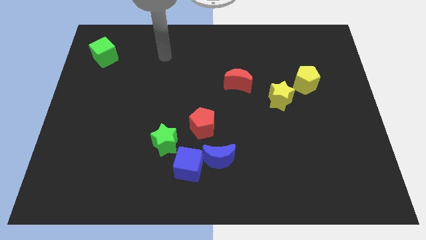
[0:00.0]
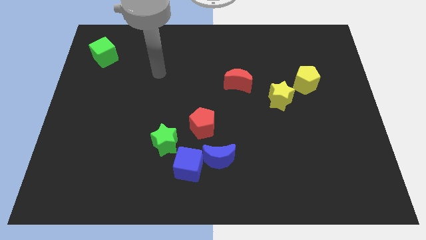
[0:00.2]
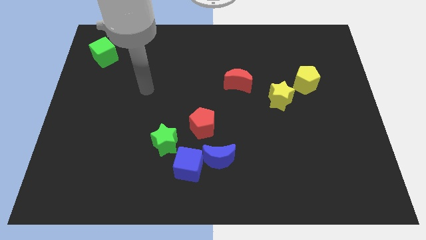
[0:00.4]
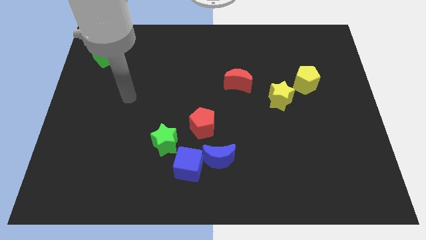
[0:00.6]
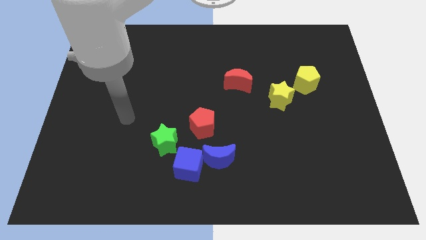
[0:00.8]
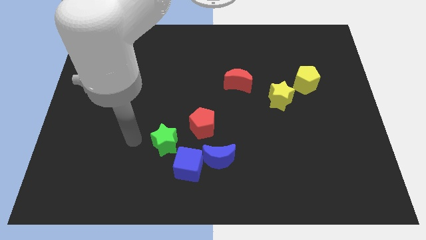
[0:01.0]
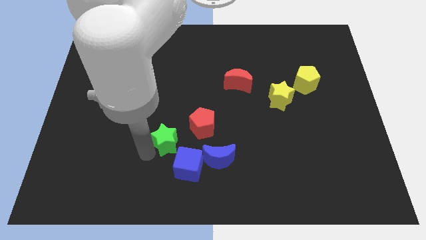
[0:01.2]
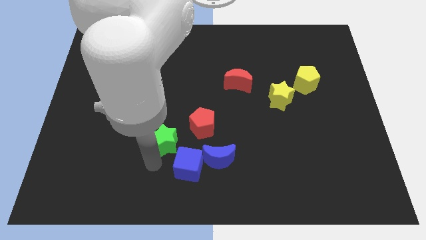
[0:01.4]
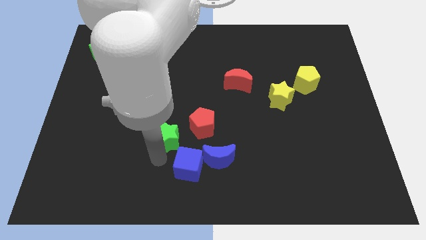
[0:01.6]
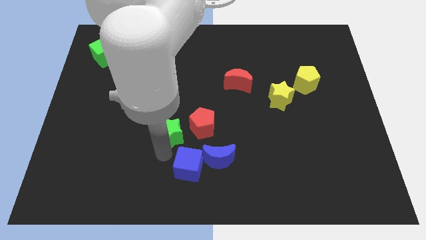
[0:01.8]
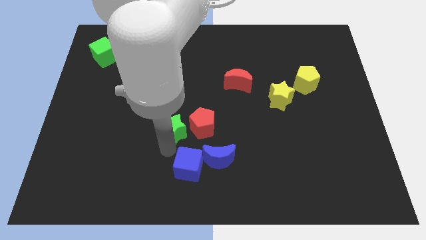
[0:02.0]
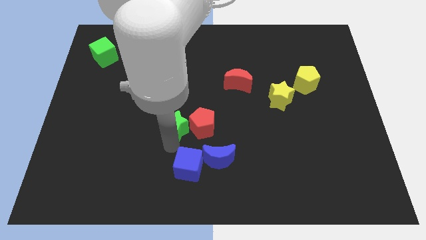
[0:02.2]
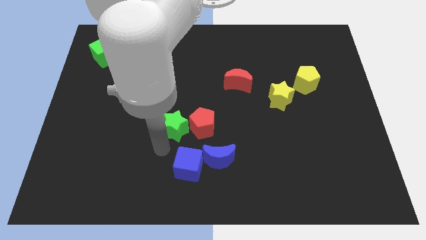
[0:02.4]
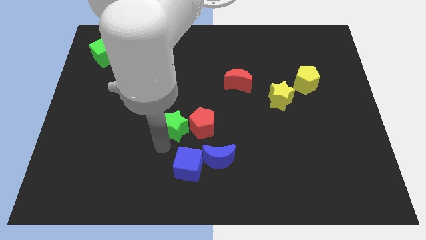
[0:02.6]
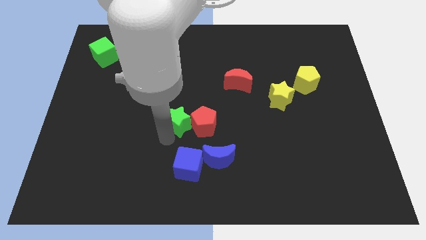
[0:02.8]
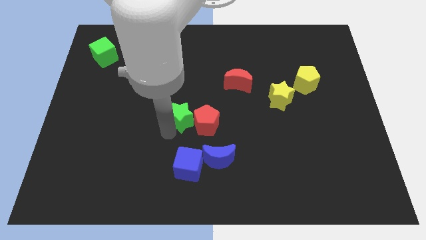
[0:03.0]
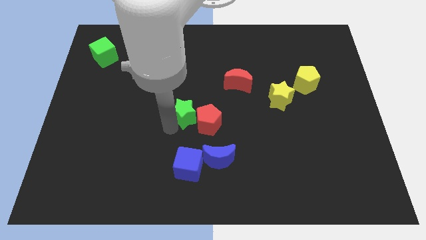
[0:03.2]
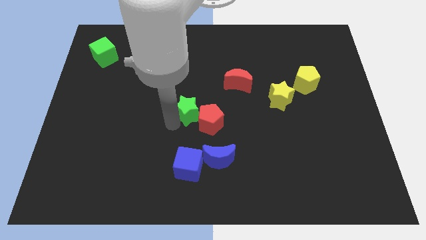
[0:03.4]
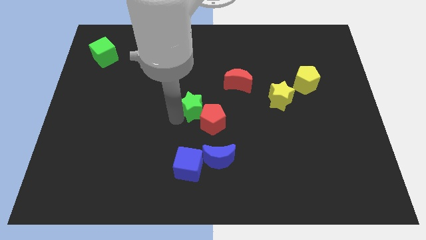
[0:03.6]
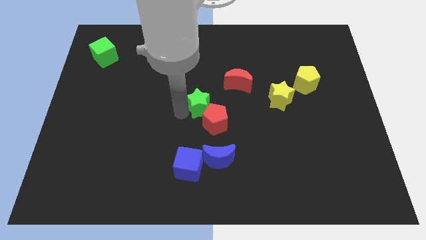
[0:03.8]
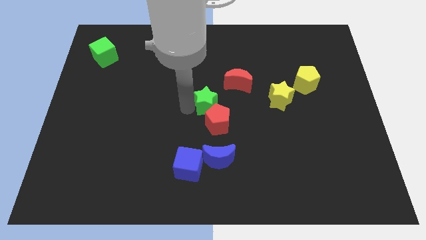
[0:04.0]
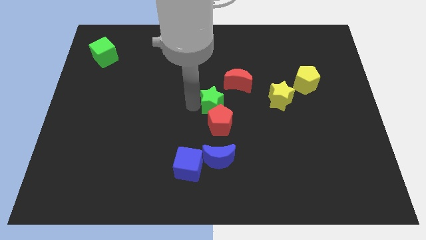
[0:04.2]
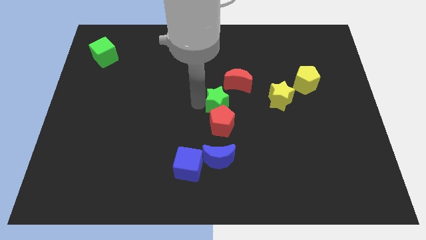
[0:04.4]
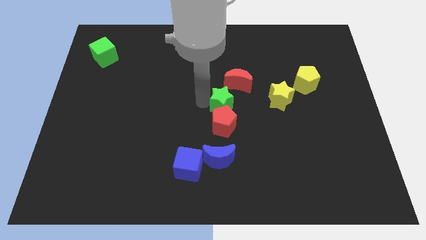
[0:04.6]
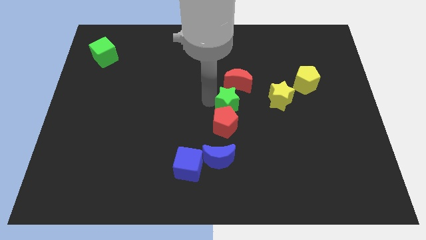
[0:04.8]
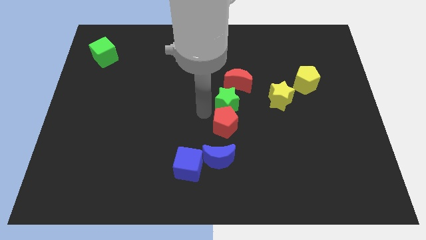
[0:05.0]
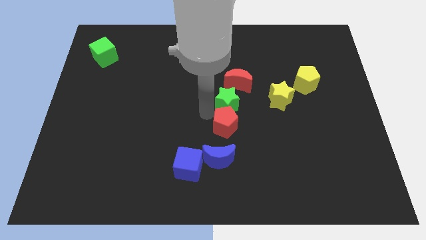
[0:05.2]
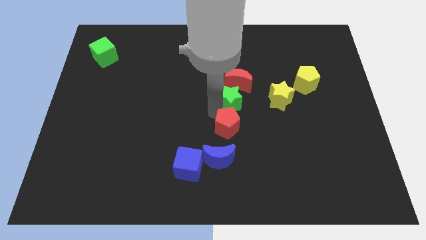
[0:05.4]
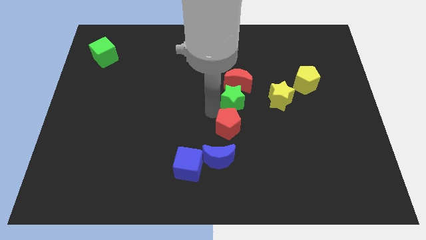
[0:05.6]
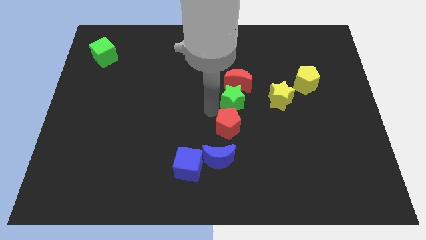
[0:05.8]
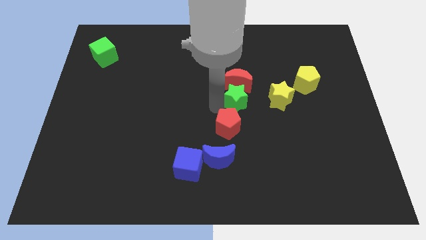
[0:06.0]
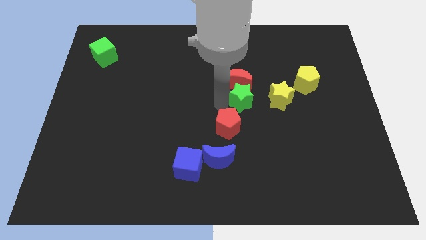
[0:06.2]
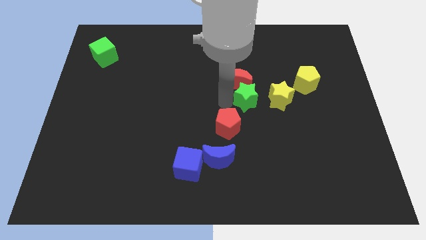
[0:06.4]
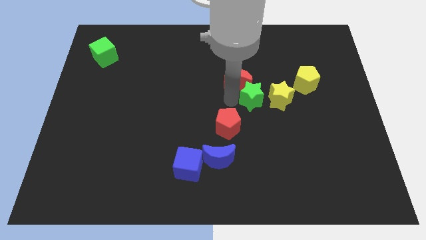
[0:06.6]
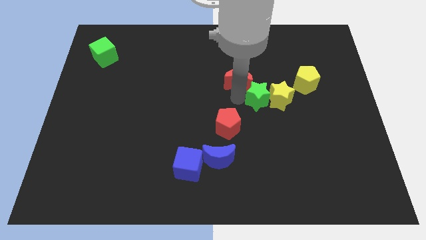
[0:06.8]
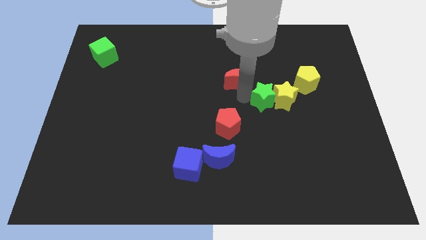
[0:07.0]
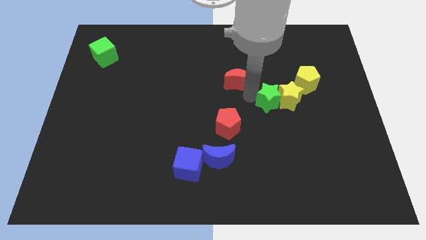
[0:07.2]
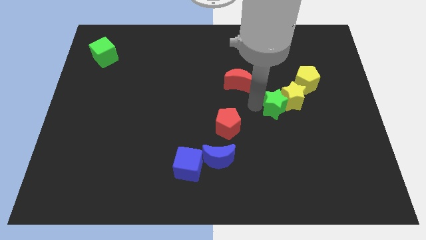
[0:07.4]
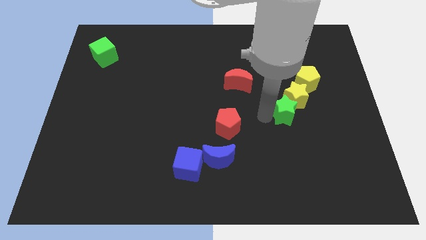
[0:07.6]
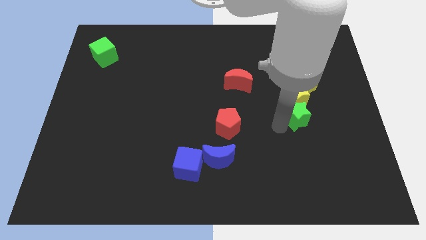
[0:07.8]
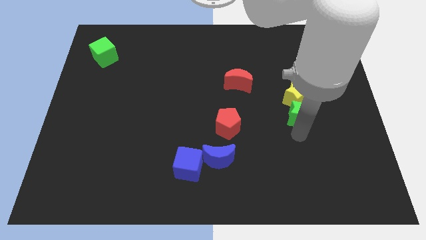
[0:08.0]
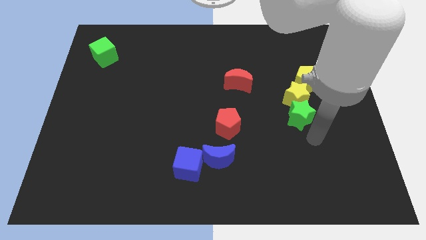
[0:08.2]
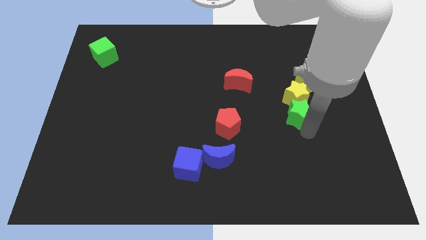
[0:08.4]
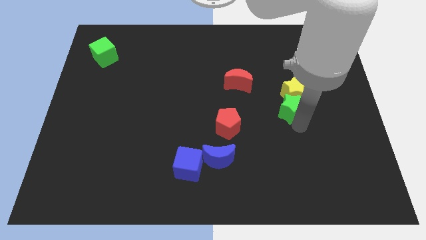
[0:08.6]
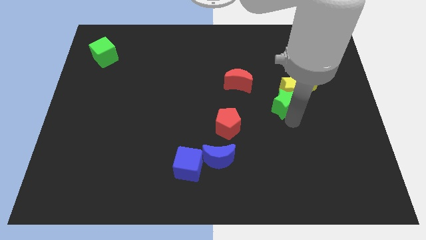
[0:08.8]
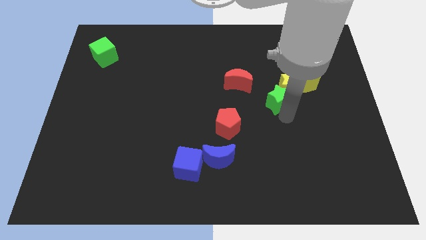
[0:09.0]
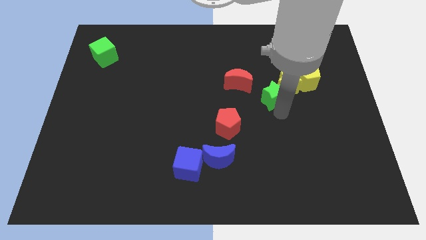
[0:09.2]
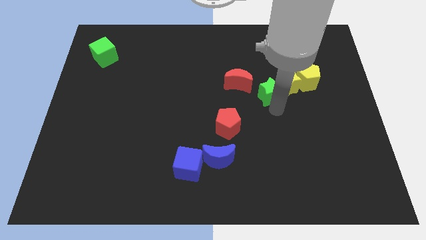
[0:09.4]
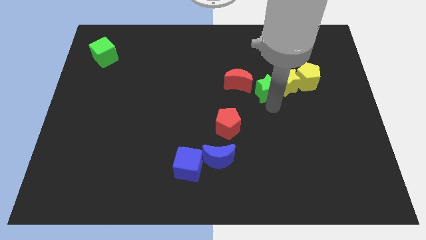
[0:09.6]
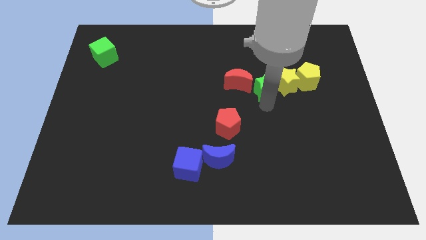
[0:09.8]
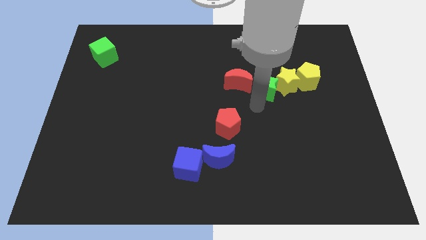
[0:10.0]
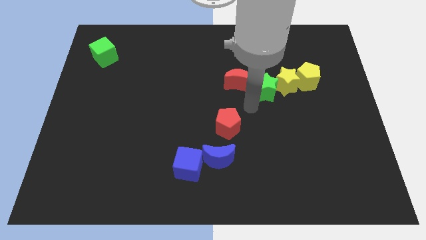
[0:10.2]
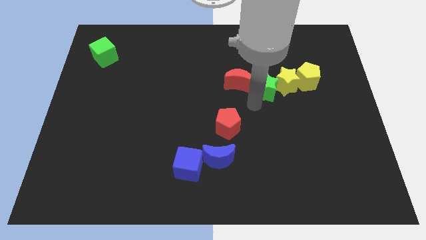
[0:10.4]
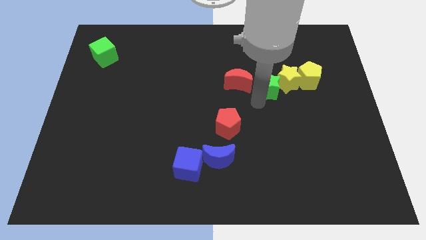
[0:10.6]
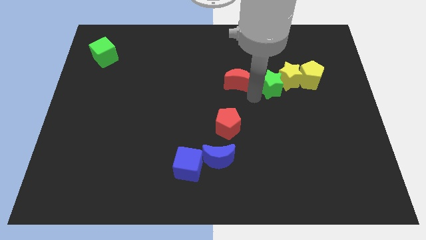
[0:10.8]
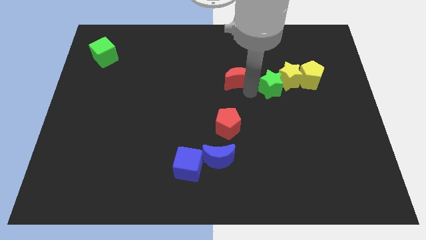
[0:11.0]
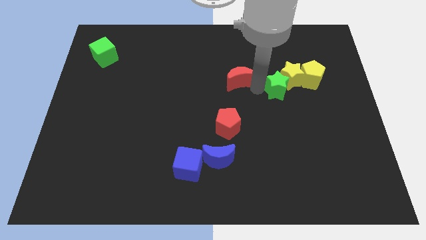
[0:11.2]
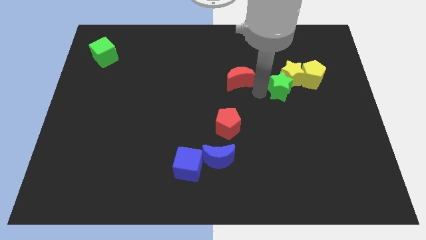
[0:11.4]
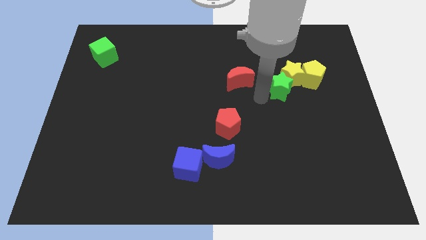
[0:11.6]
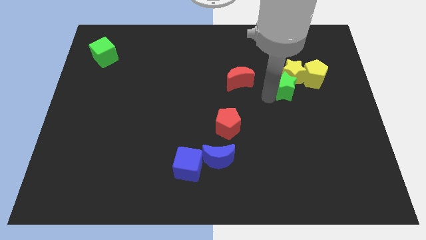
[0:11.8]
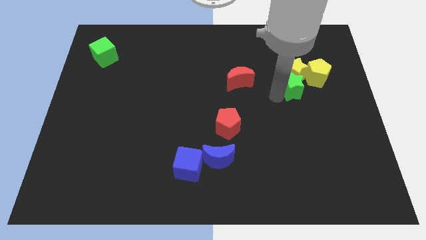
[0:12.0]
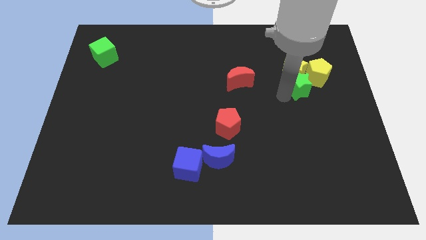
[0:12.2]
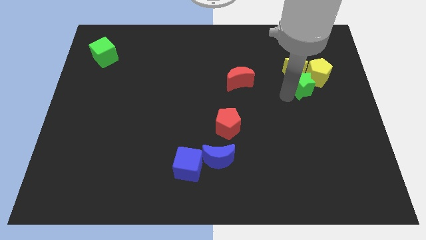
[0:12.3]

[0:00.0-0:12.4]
put the green star next to the yellow pentagon

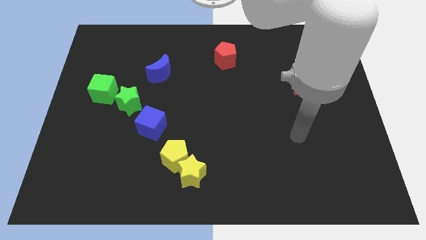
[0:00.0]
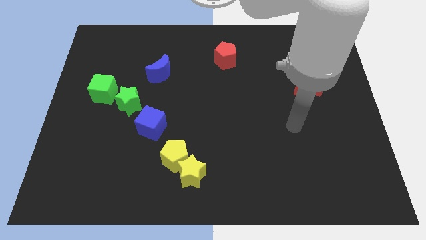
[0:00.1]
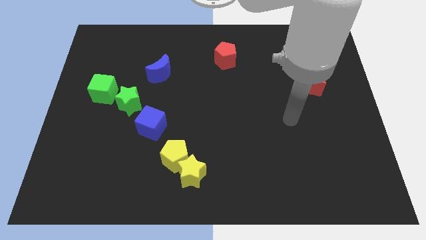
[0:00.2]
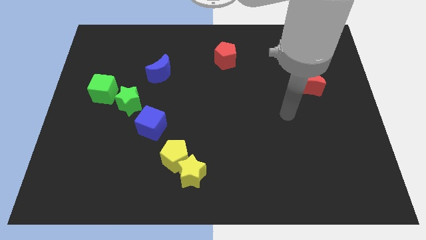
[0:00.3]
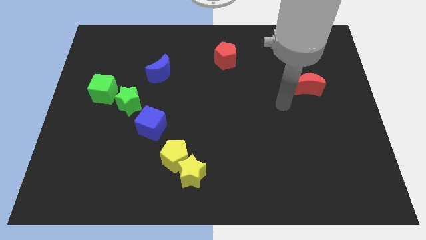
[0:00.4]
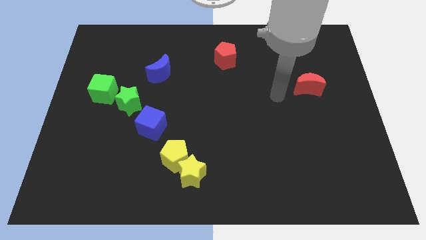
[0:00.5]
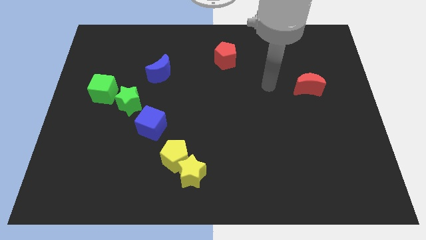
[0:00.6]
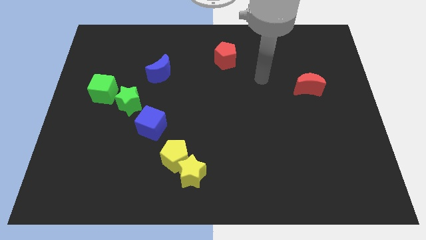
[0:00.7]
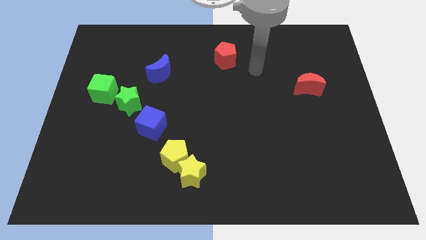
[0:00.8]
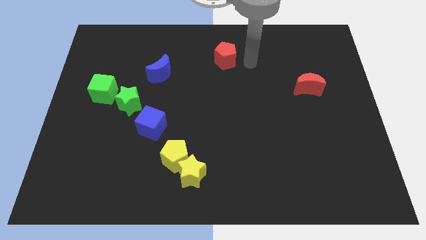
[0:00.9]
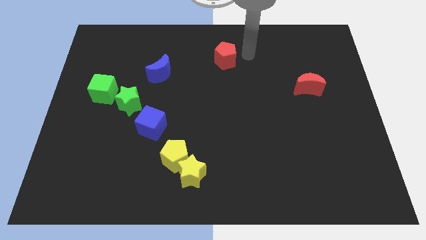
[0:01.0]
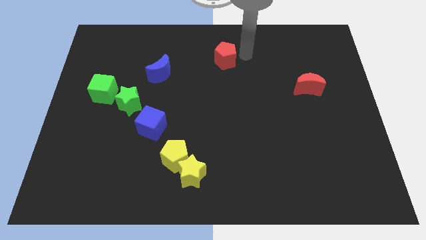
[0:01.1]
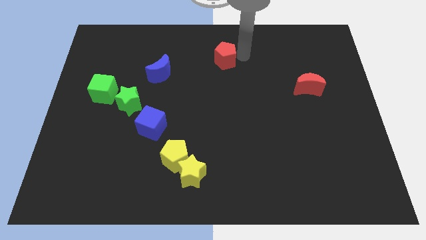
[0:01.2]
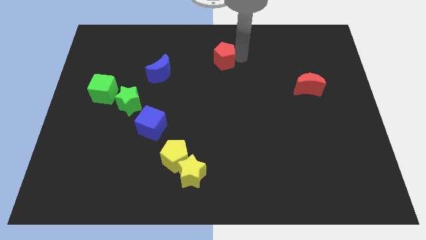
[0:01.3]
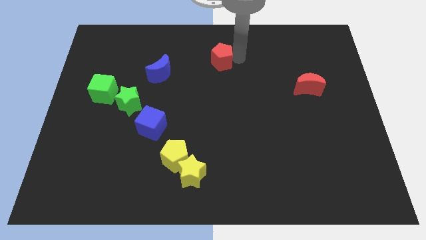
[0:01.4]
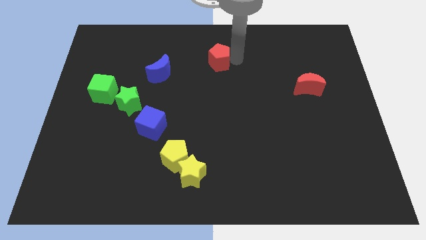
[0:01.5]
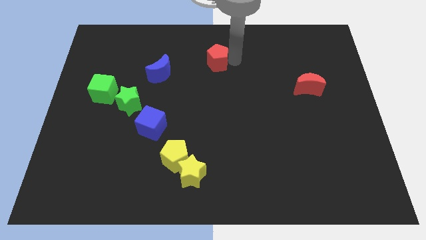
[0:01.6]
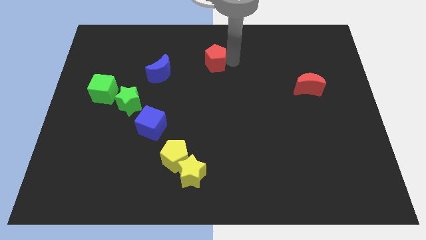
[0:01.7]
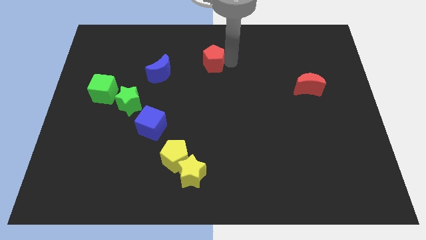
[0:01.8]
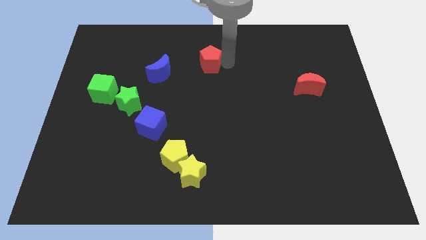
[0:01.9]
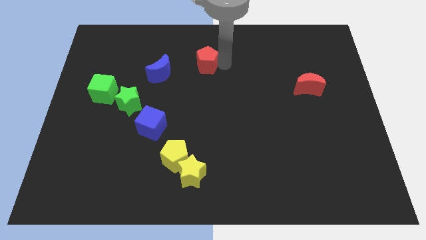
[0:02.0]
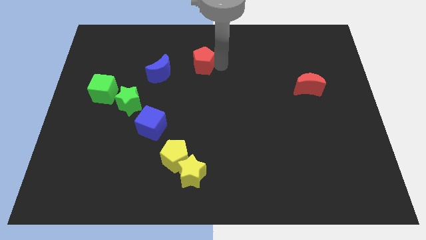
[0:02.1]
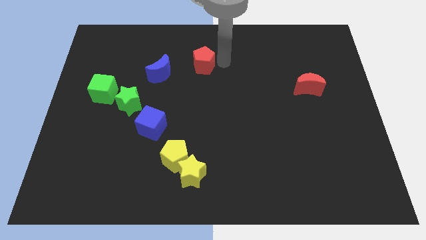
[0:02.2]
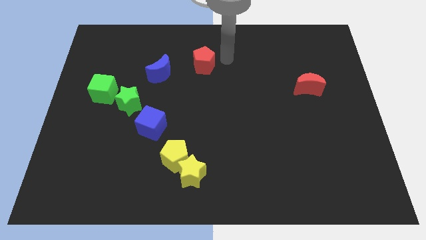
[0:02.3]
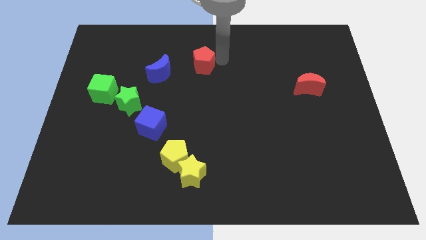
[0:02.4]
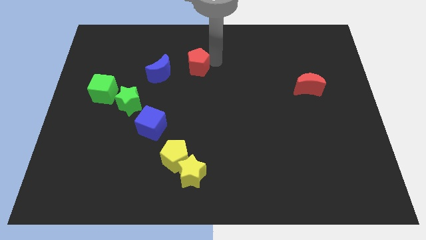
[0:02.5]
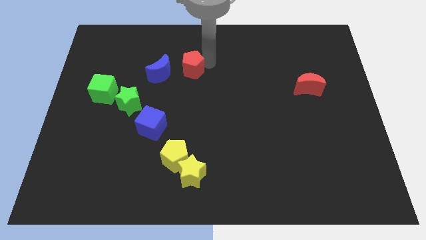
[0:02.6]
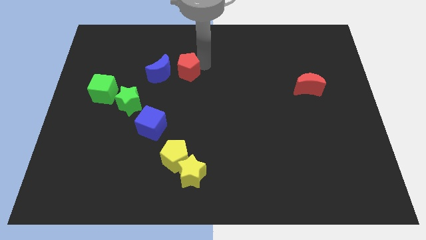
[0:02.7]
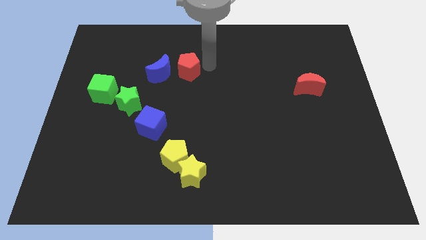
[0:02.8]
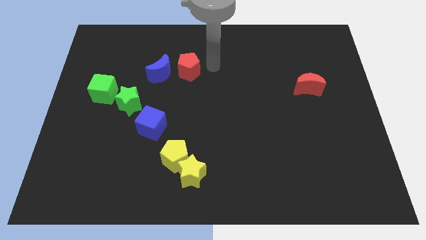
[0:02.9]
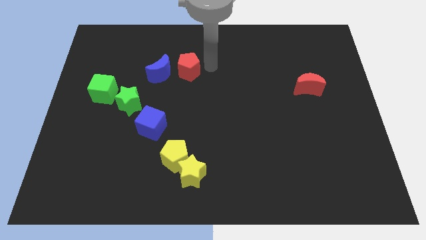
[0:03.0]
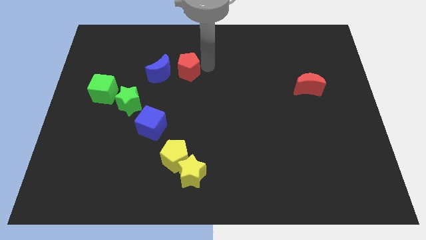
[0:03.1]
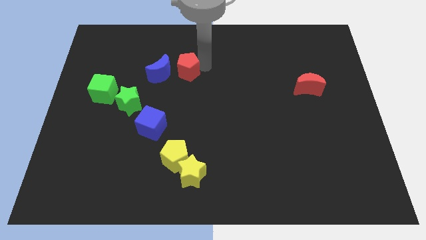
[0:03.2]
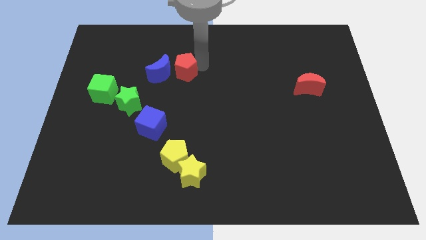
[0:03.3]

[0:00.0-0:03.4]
move the red pentagon next to the blue moon
